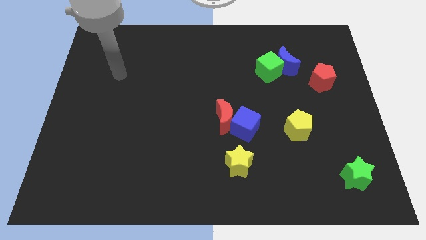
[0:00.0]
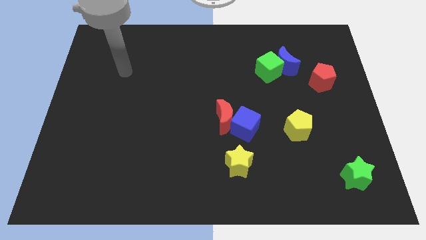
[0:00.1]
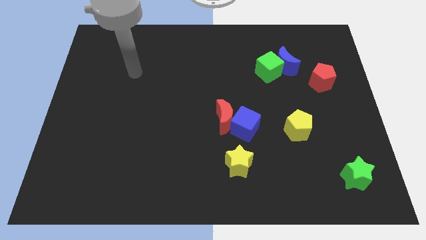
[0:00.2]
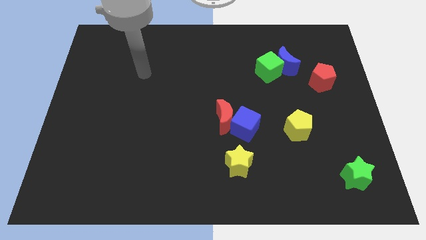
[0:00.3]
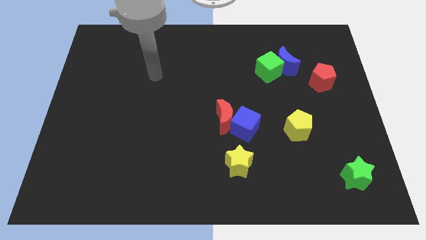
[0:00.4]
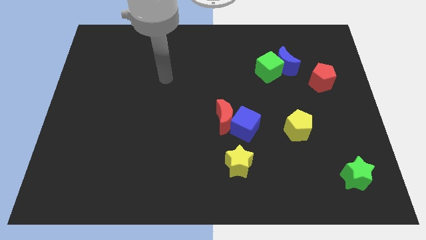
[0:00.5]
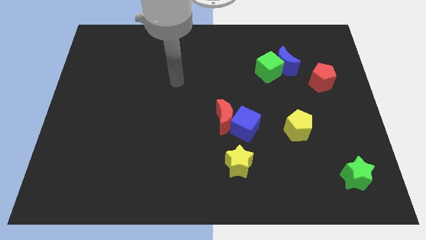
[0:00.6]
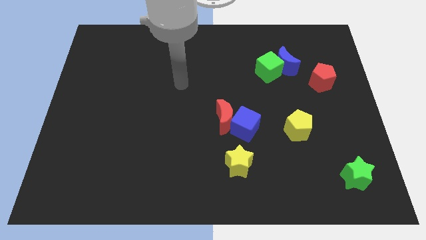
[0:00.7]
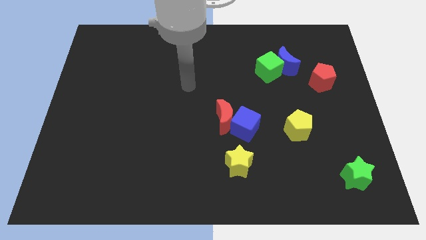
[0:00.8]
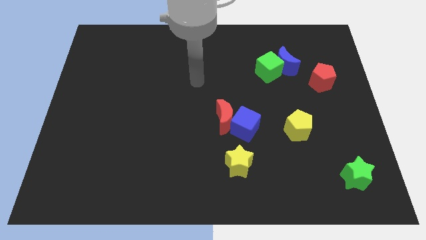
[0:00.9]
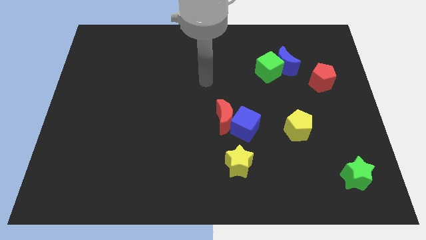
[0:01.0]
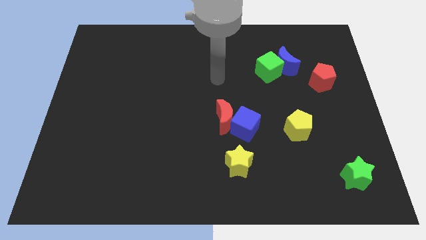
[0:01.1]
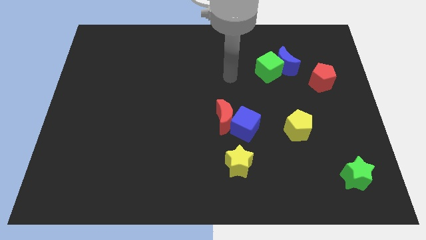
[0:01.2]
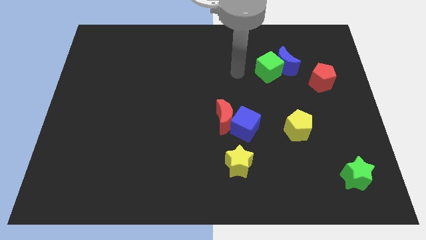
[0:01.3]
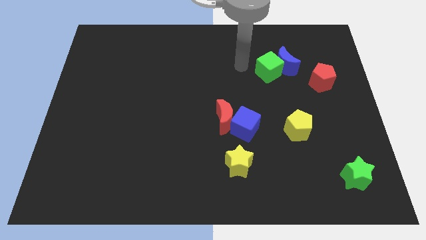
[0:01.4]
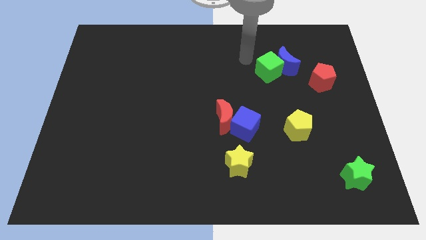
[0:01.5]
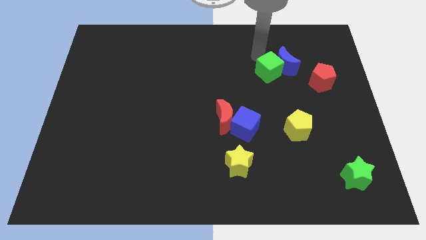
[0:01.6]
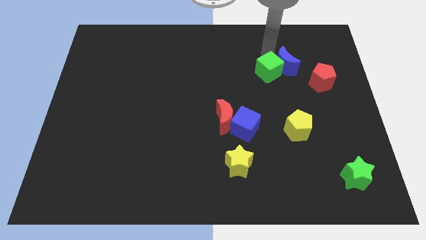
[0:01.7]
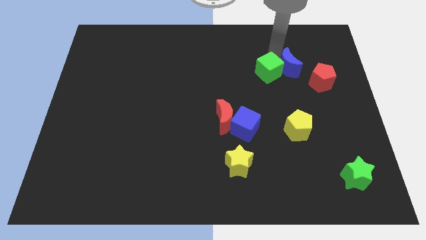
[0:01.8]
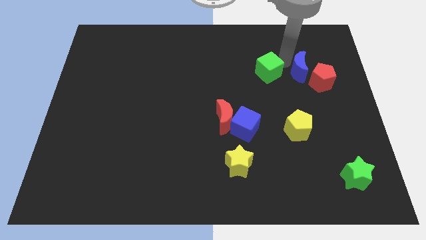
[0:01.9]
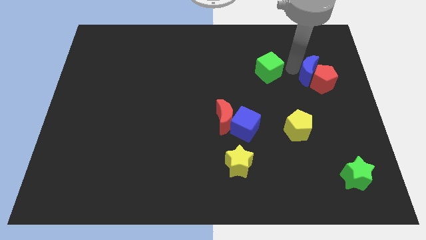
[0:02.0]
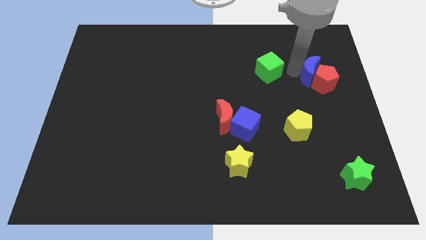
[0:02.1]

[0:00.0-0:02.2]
pull the green cube apart from the blue moon

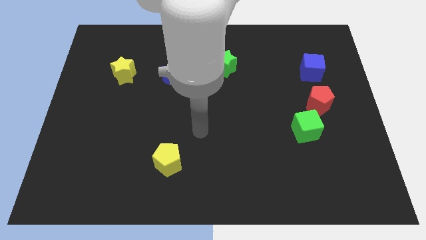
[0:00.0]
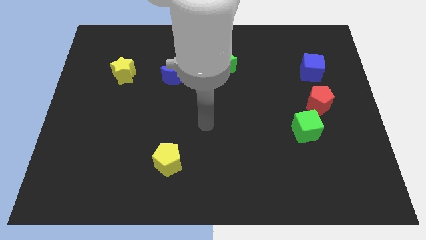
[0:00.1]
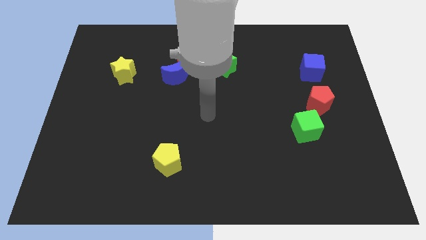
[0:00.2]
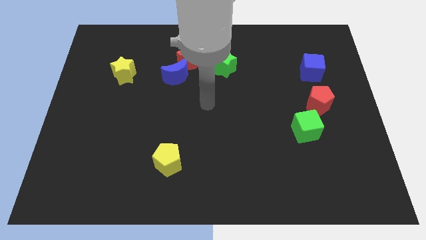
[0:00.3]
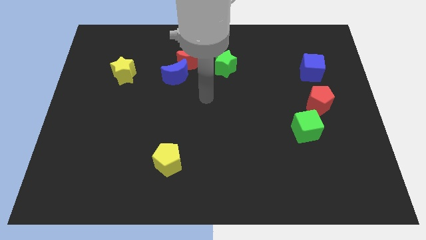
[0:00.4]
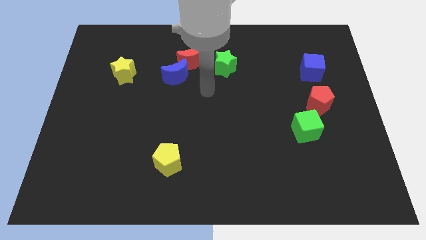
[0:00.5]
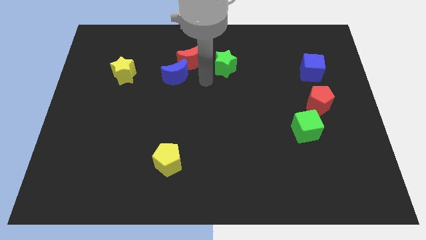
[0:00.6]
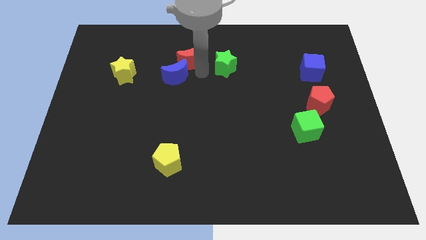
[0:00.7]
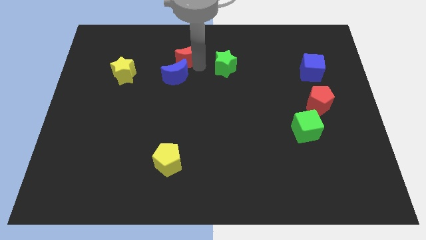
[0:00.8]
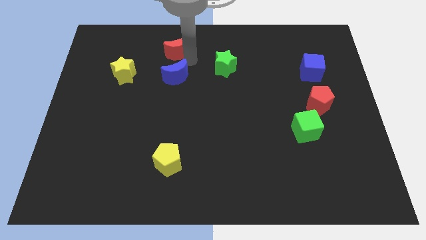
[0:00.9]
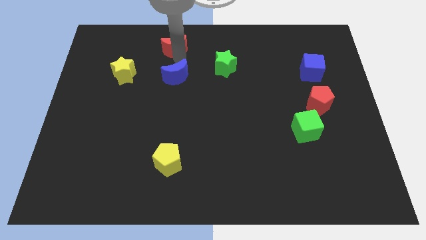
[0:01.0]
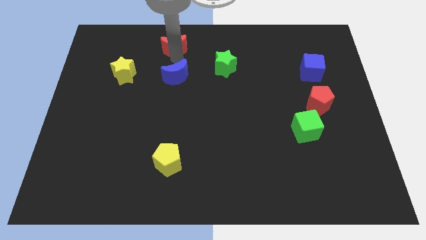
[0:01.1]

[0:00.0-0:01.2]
pull the blue moon apart from the red moon

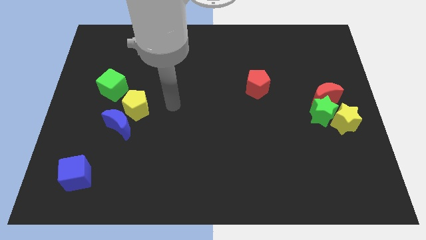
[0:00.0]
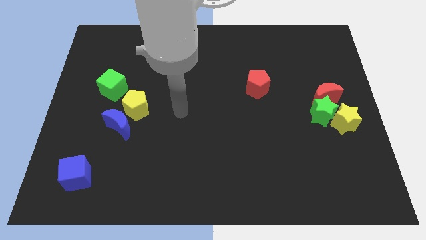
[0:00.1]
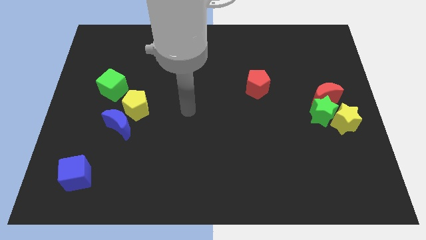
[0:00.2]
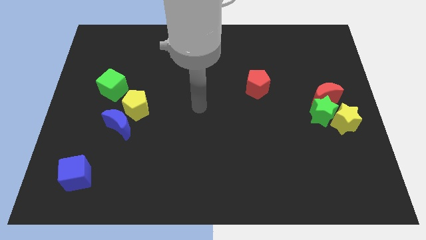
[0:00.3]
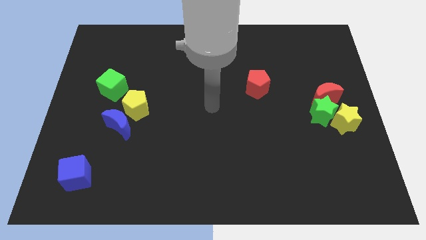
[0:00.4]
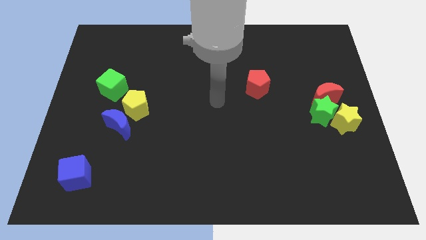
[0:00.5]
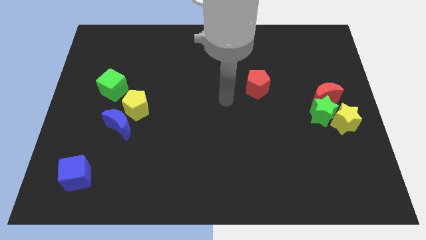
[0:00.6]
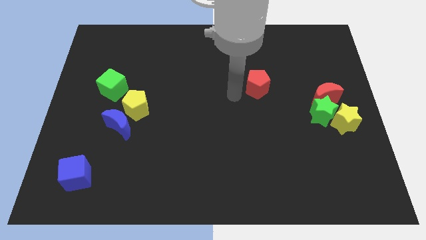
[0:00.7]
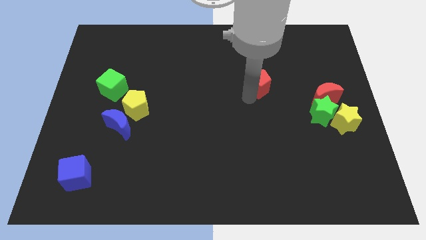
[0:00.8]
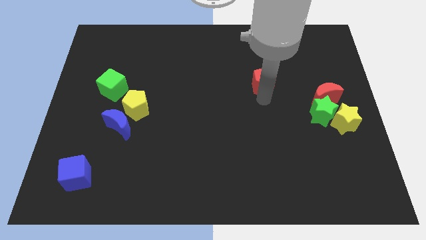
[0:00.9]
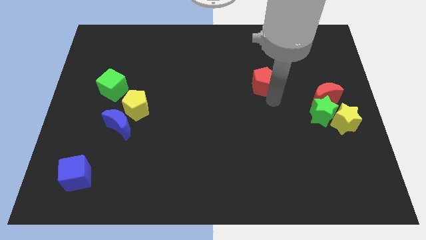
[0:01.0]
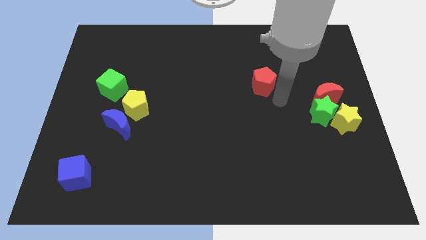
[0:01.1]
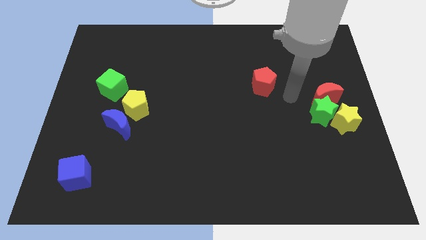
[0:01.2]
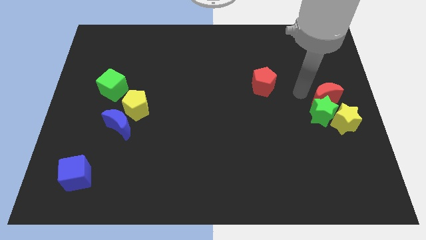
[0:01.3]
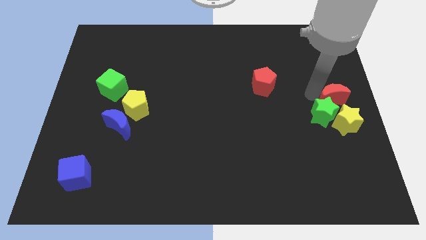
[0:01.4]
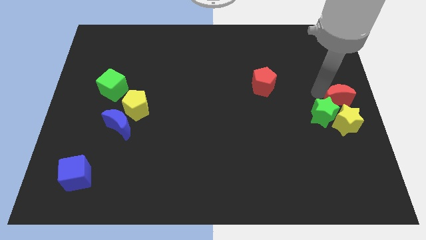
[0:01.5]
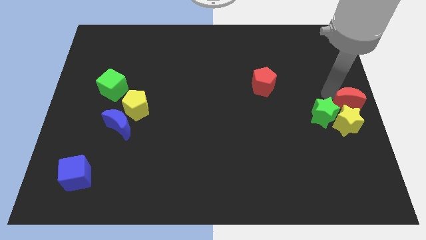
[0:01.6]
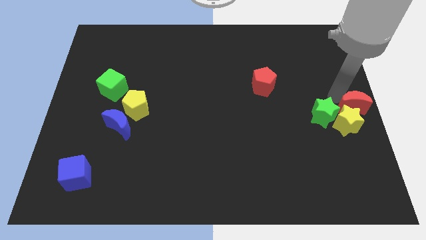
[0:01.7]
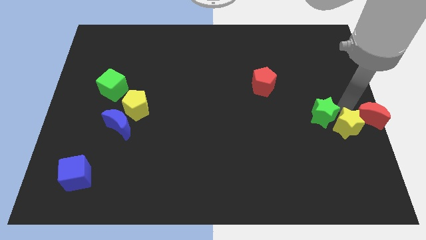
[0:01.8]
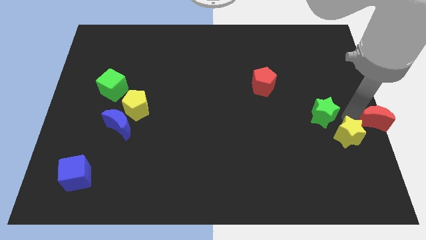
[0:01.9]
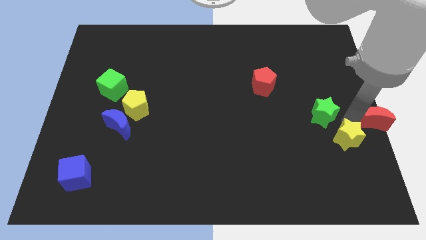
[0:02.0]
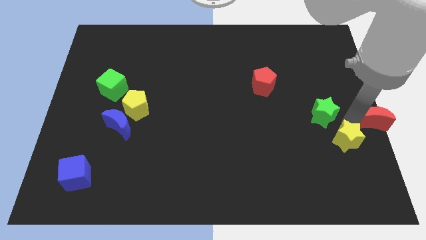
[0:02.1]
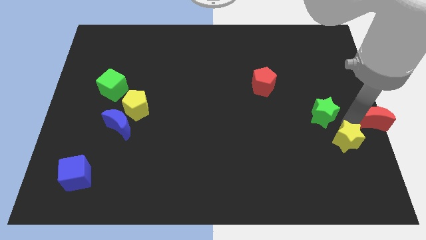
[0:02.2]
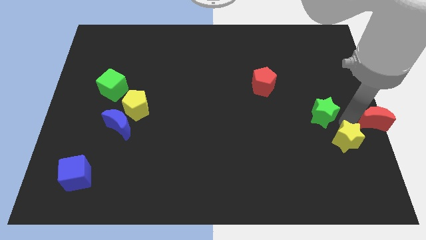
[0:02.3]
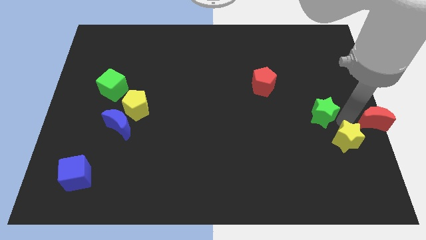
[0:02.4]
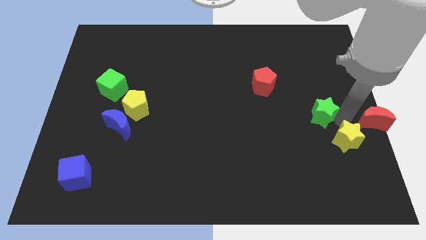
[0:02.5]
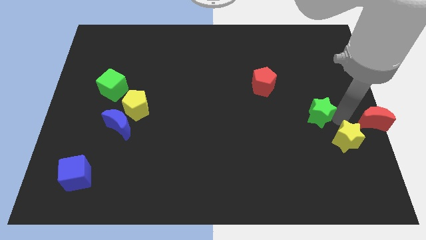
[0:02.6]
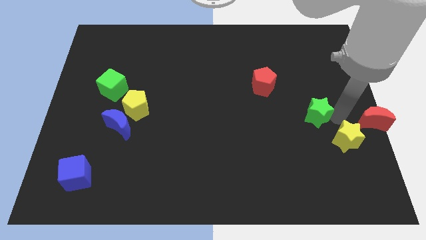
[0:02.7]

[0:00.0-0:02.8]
separate the green star from the red moon and yellow star

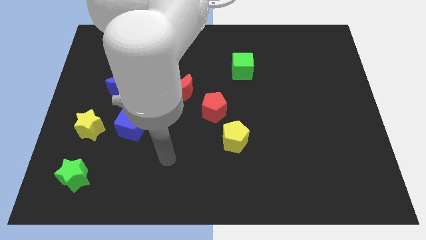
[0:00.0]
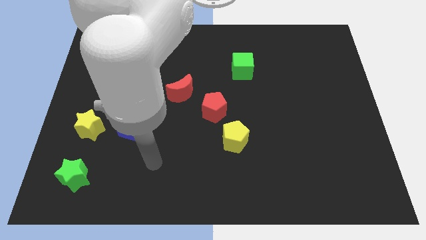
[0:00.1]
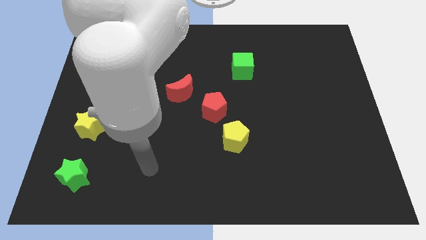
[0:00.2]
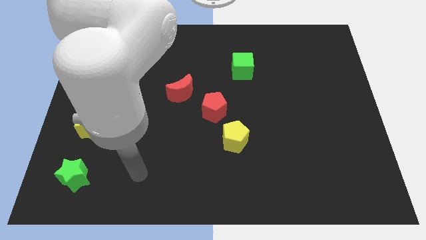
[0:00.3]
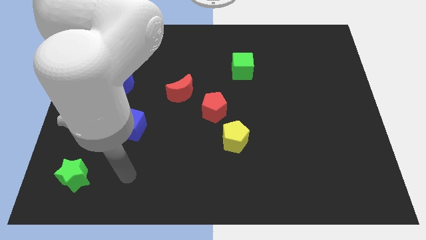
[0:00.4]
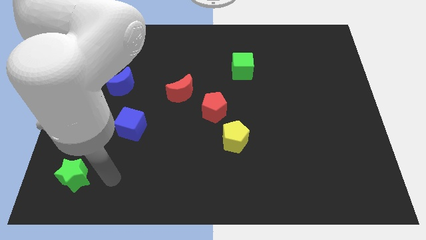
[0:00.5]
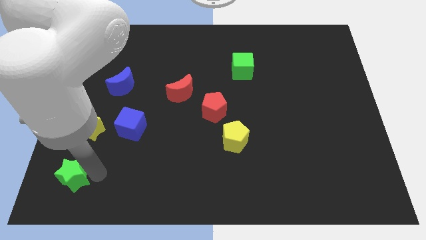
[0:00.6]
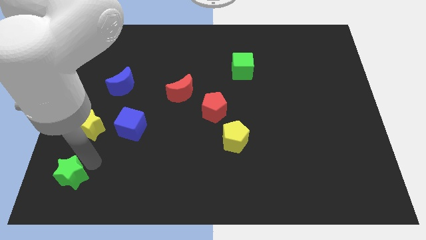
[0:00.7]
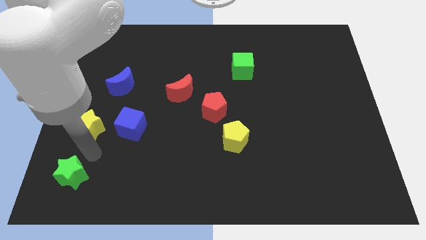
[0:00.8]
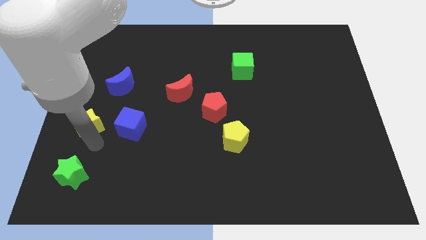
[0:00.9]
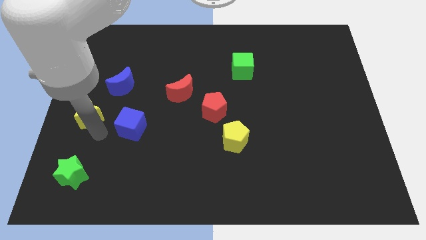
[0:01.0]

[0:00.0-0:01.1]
pull the blue cube apart from the yellow star

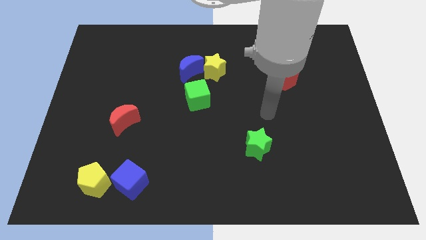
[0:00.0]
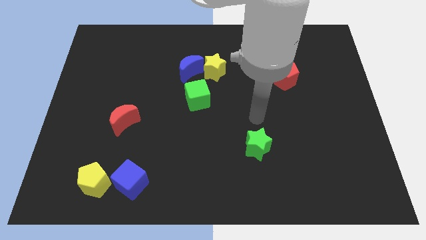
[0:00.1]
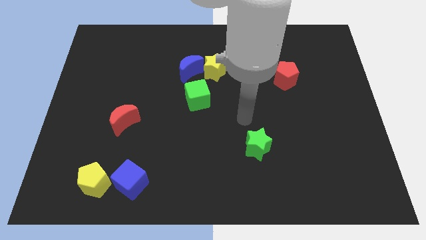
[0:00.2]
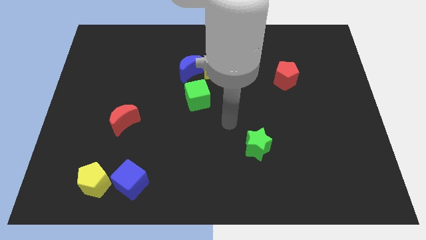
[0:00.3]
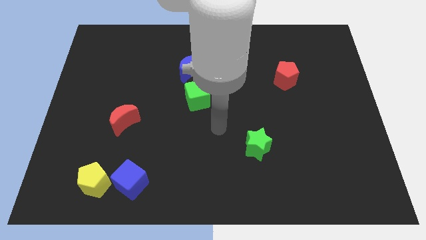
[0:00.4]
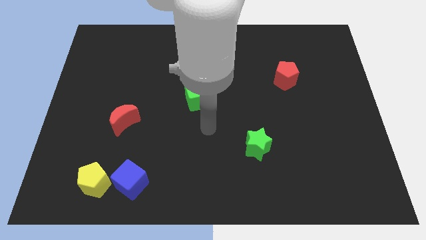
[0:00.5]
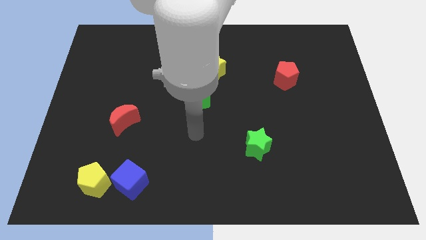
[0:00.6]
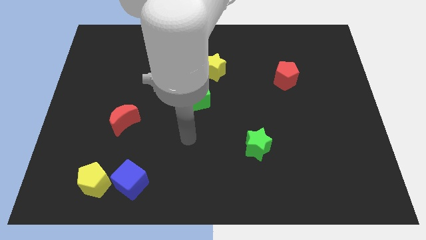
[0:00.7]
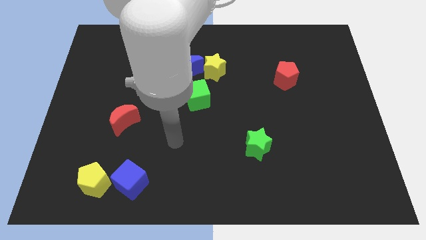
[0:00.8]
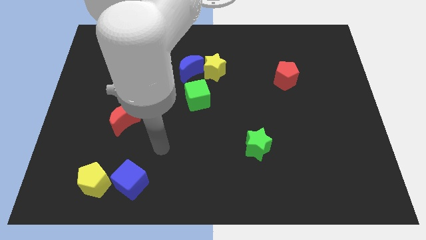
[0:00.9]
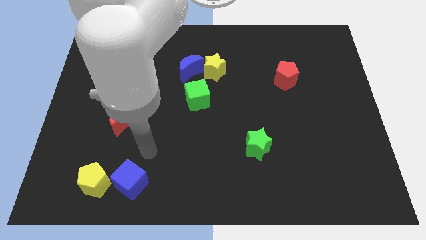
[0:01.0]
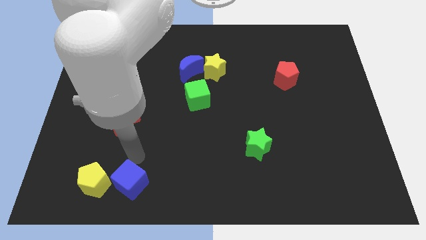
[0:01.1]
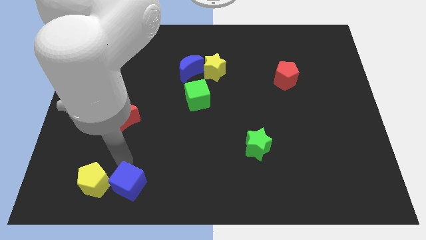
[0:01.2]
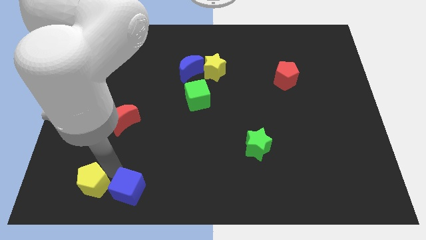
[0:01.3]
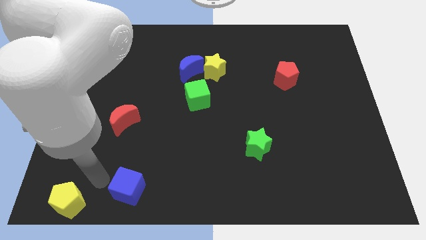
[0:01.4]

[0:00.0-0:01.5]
separate the blue cube from the yellow pentagon

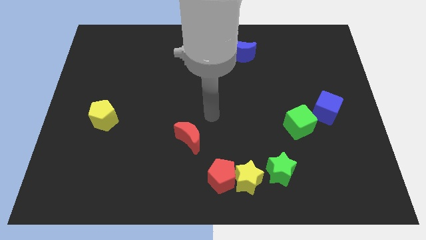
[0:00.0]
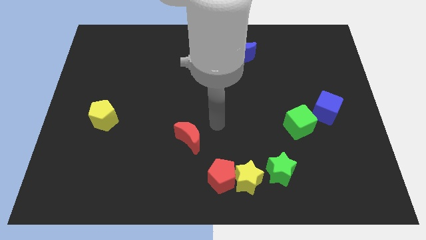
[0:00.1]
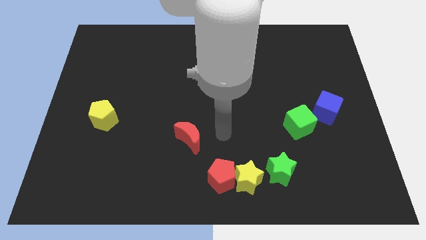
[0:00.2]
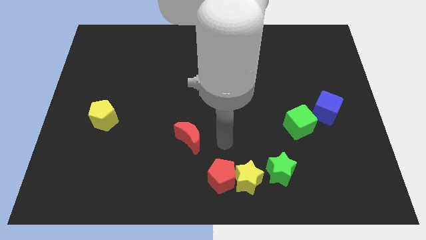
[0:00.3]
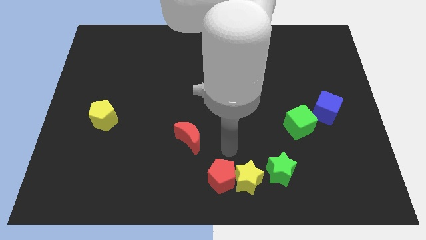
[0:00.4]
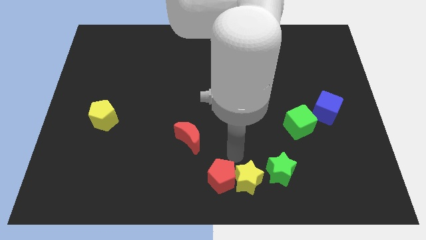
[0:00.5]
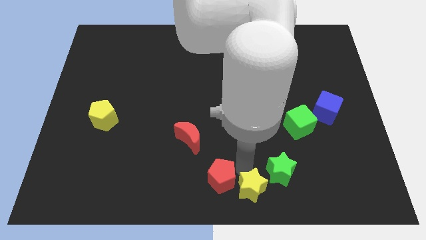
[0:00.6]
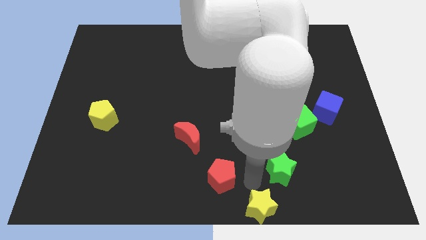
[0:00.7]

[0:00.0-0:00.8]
separate the red pentagon from the yellow star
